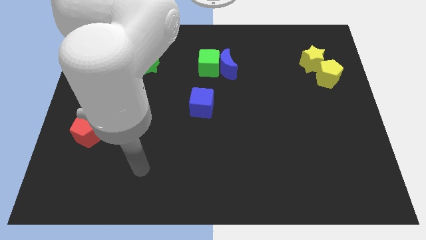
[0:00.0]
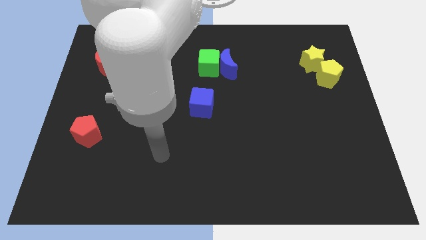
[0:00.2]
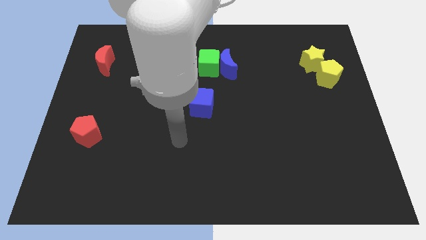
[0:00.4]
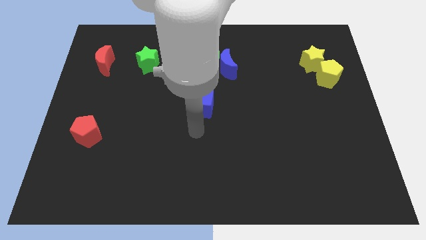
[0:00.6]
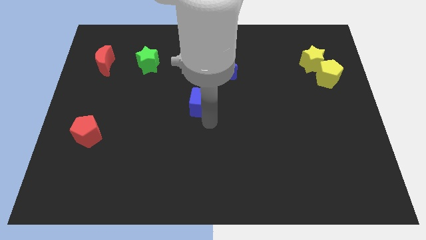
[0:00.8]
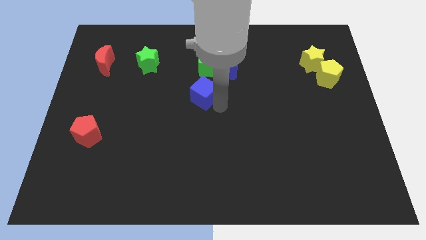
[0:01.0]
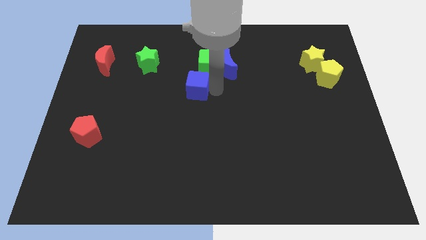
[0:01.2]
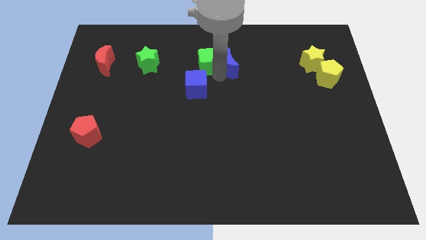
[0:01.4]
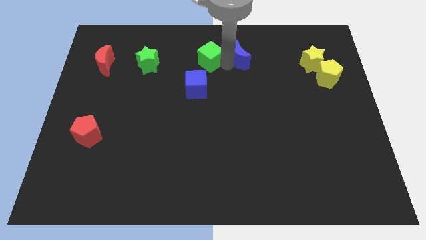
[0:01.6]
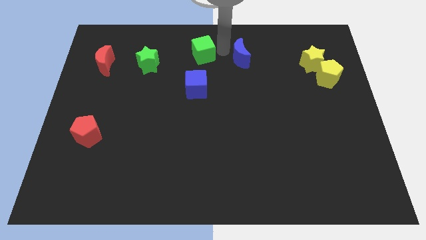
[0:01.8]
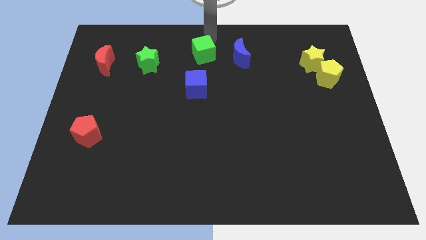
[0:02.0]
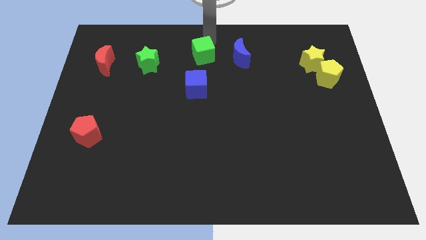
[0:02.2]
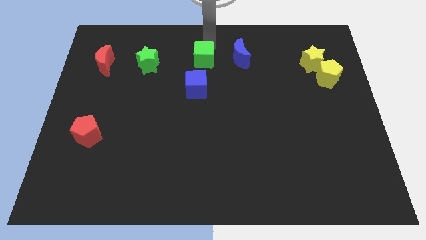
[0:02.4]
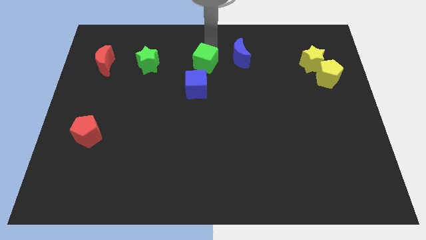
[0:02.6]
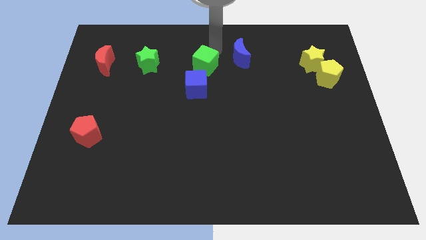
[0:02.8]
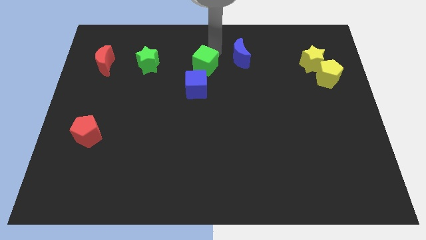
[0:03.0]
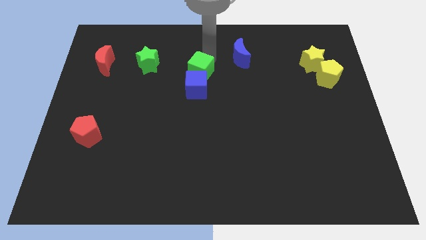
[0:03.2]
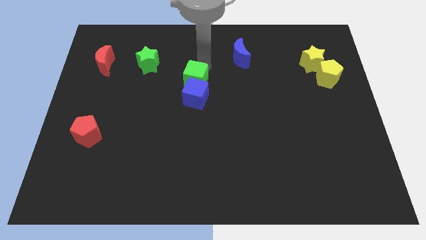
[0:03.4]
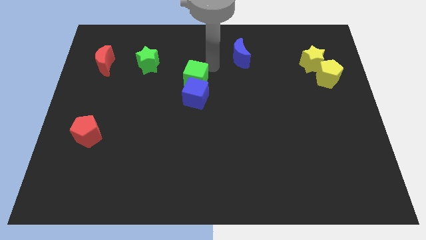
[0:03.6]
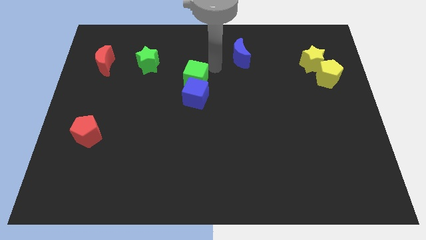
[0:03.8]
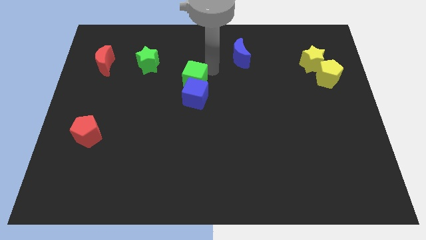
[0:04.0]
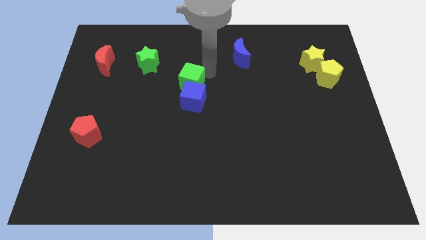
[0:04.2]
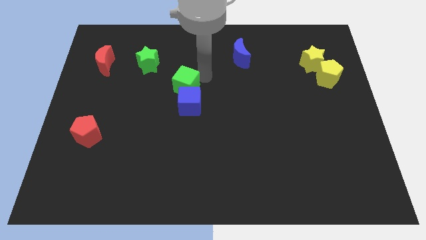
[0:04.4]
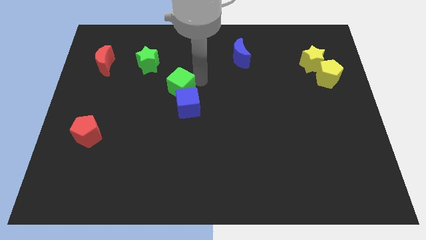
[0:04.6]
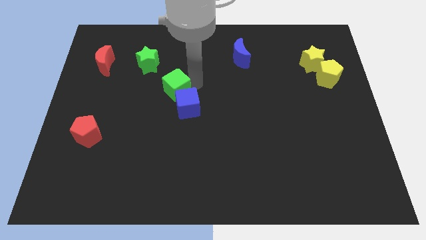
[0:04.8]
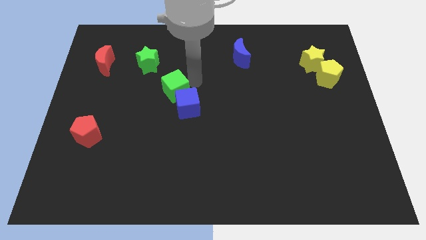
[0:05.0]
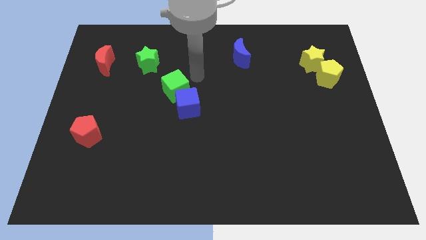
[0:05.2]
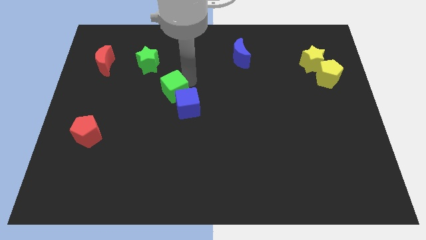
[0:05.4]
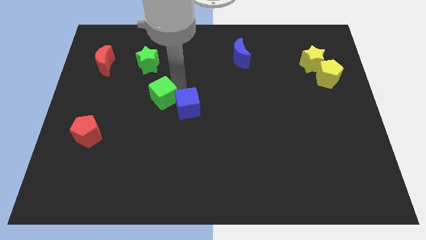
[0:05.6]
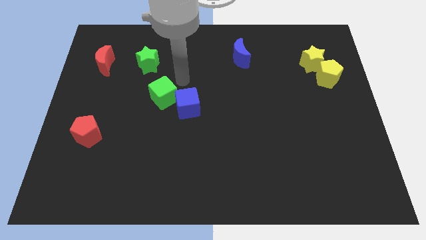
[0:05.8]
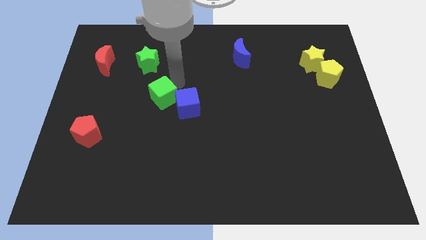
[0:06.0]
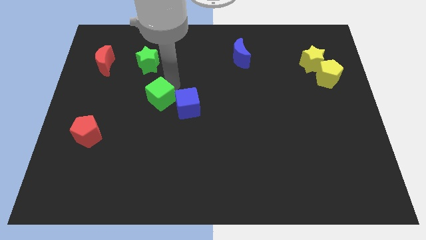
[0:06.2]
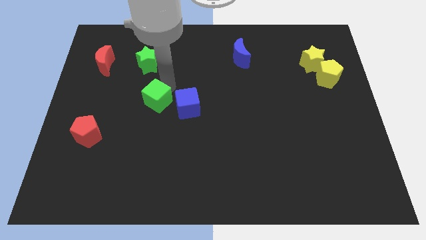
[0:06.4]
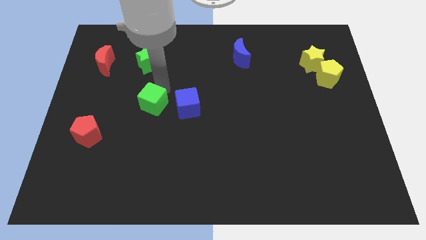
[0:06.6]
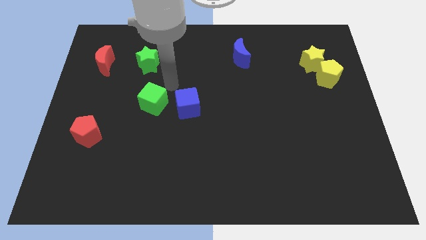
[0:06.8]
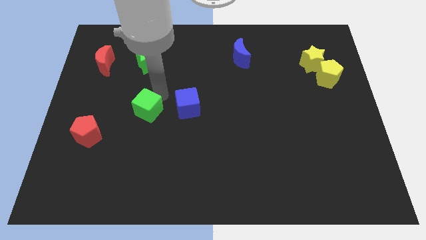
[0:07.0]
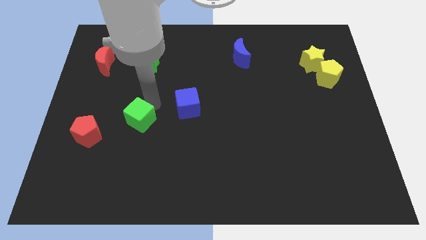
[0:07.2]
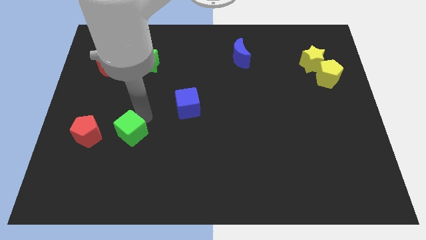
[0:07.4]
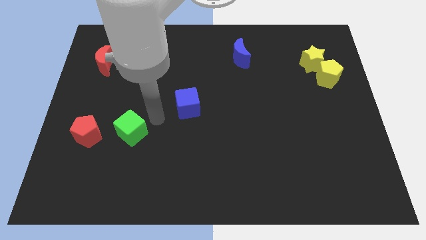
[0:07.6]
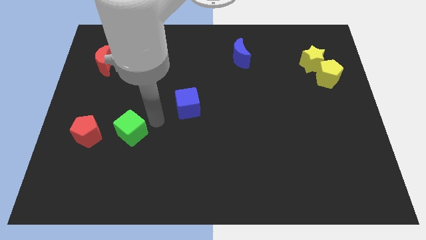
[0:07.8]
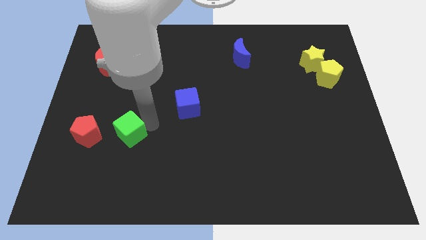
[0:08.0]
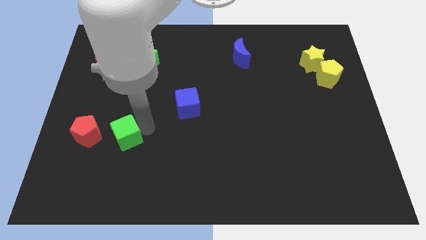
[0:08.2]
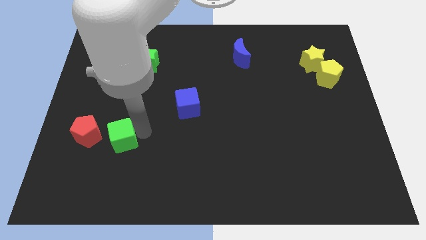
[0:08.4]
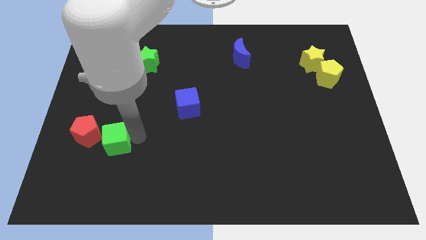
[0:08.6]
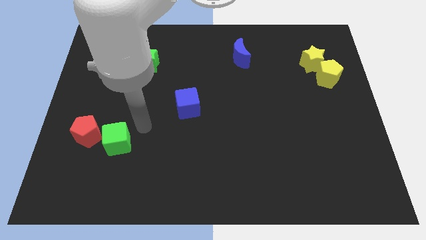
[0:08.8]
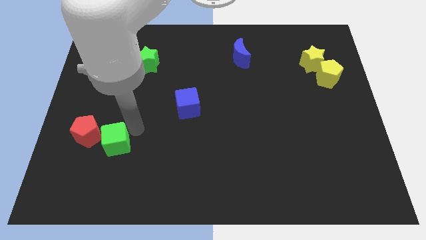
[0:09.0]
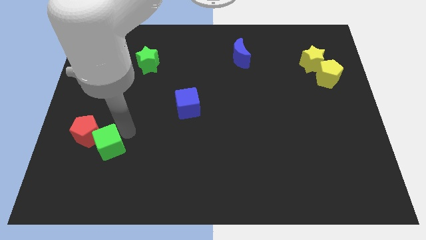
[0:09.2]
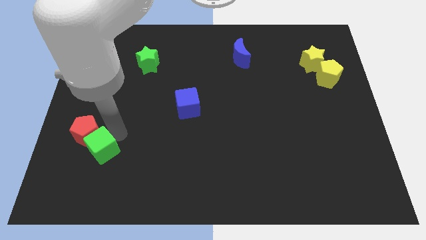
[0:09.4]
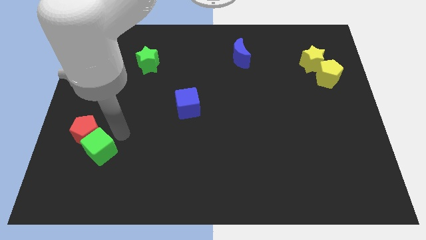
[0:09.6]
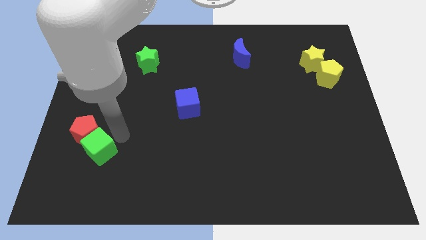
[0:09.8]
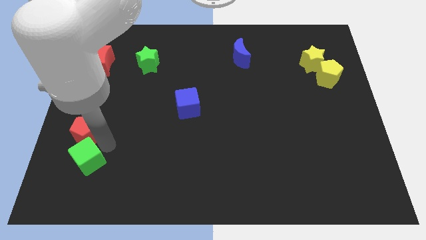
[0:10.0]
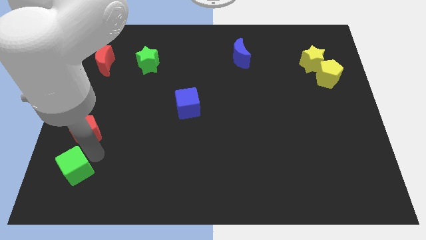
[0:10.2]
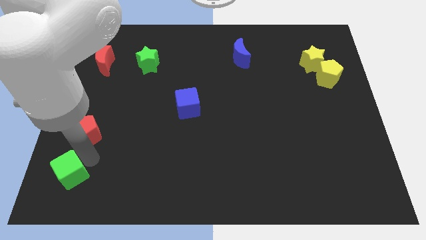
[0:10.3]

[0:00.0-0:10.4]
move the green cube to the lower left corner

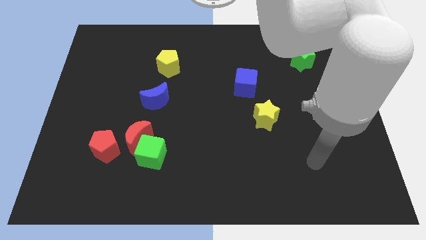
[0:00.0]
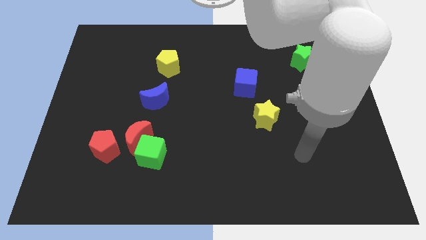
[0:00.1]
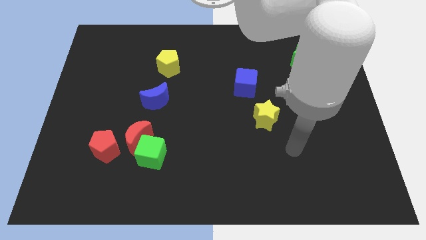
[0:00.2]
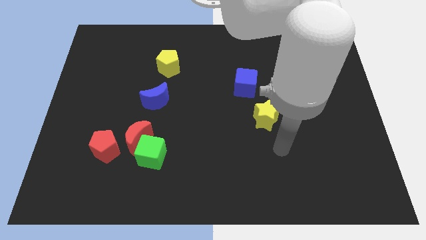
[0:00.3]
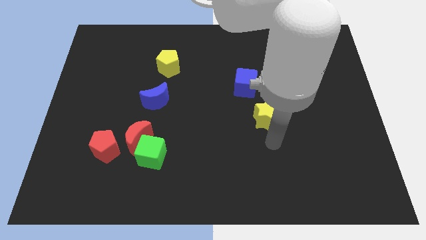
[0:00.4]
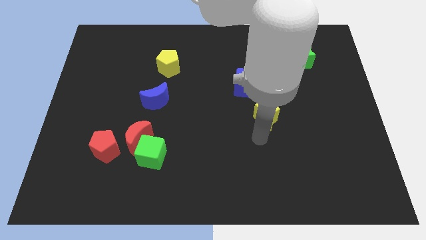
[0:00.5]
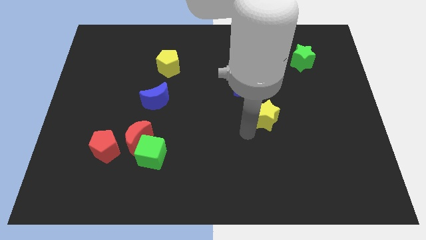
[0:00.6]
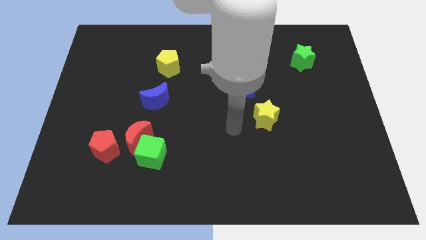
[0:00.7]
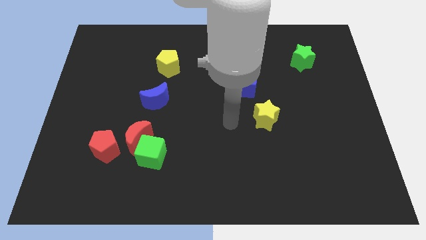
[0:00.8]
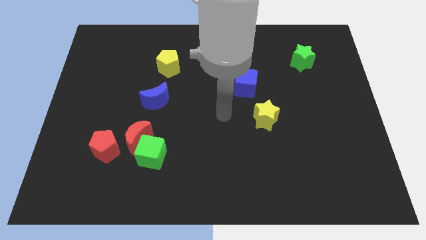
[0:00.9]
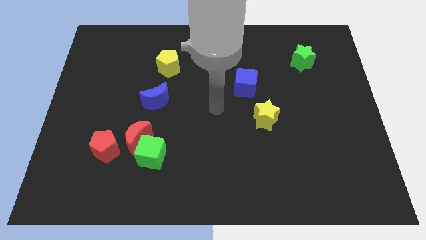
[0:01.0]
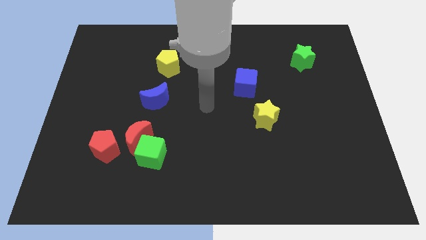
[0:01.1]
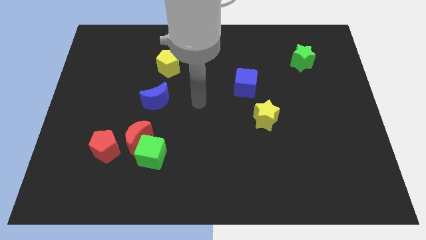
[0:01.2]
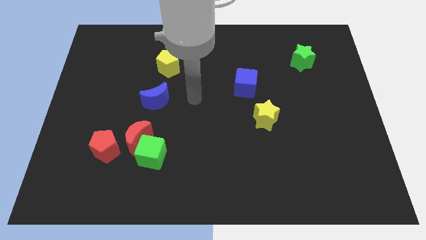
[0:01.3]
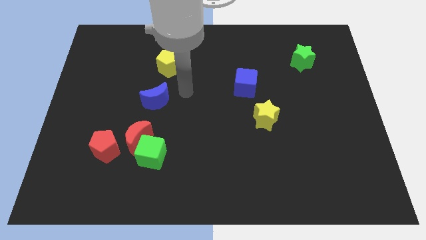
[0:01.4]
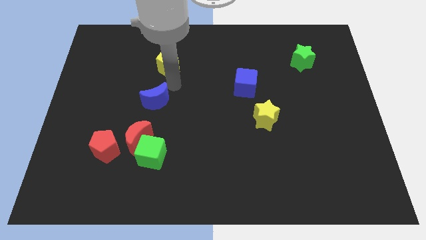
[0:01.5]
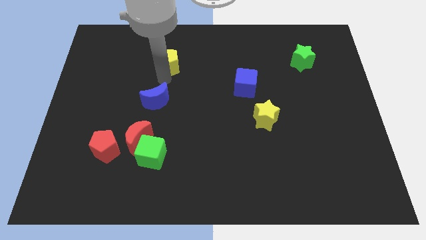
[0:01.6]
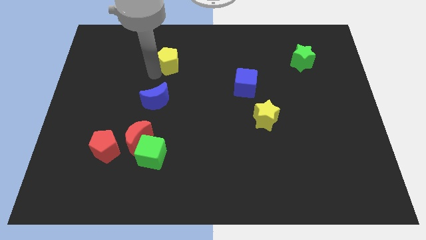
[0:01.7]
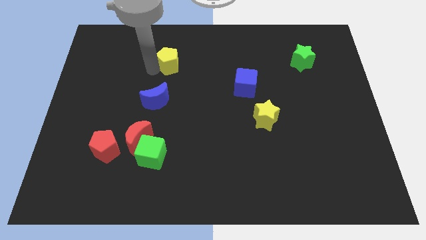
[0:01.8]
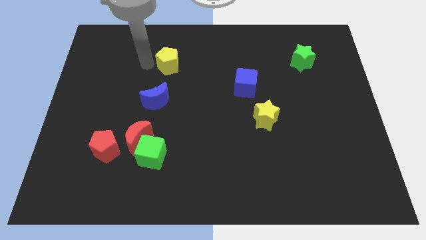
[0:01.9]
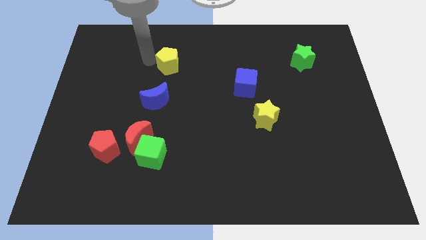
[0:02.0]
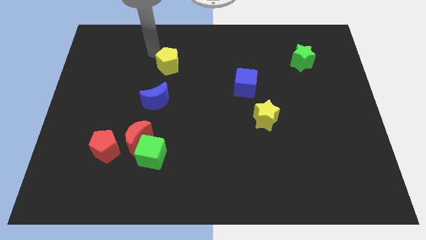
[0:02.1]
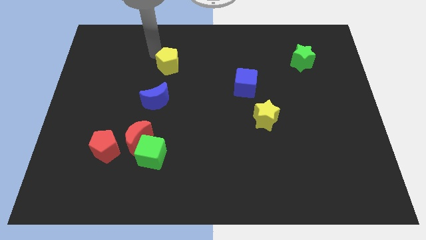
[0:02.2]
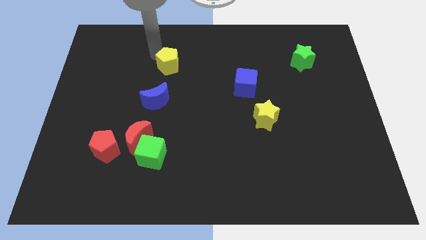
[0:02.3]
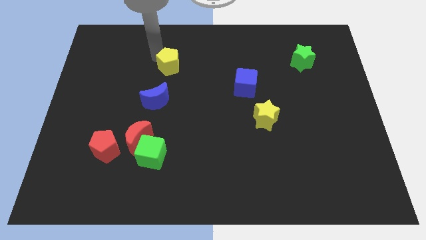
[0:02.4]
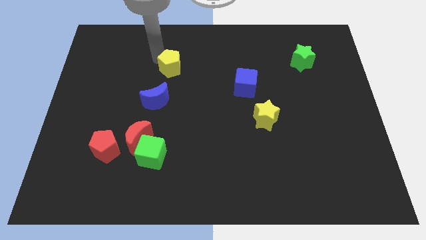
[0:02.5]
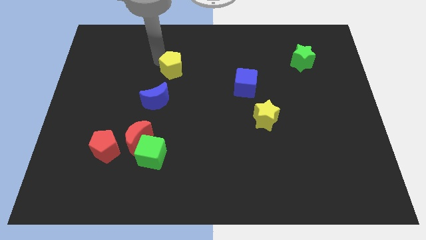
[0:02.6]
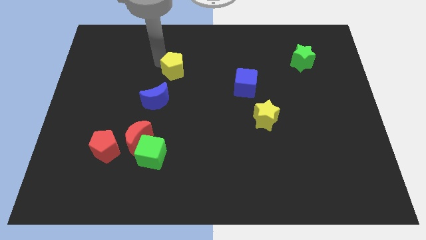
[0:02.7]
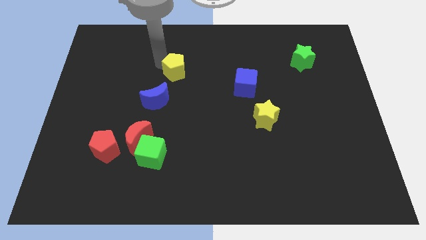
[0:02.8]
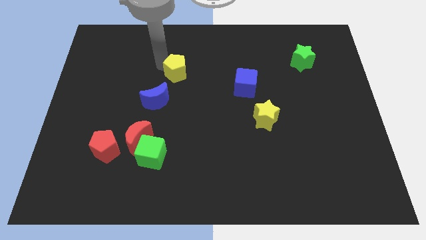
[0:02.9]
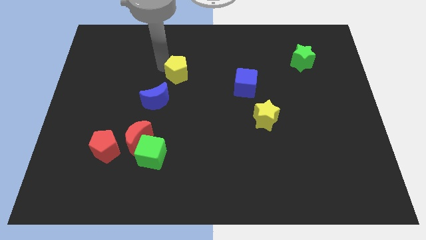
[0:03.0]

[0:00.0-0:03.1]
push the yellow pentagon to the middle of the board
